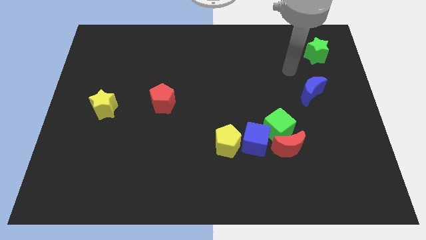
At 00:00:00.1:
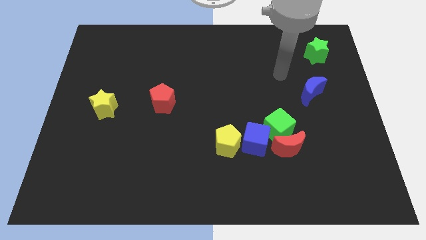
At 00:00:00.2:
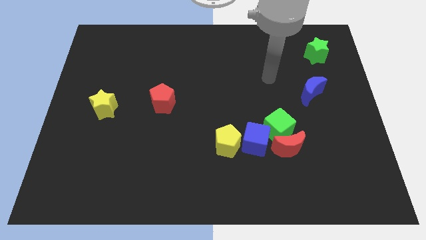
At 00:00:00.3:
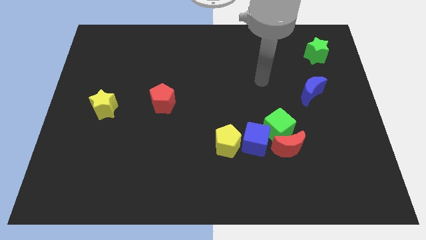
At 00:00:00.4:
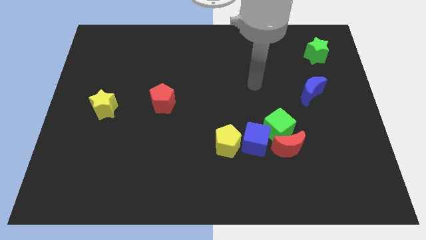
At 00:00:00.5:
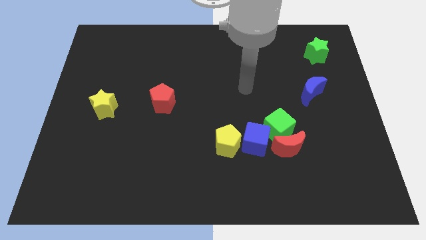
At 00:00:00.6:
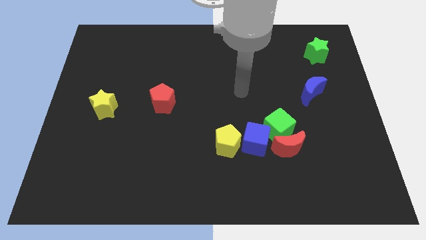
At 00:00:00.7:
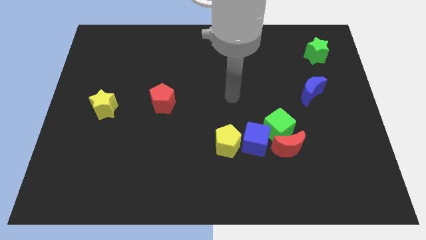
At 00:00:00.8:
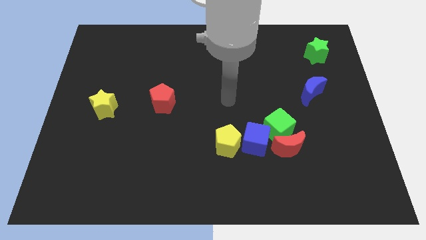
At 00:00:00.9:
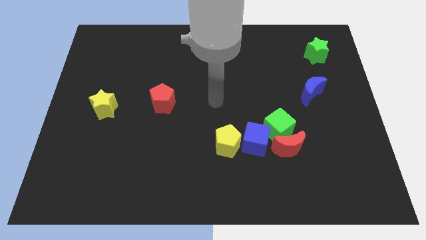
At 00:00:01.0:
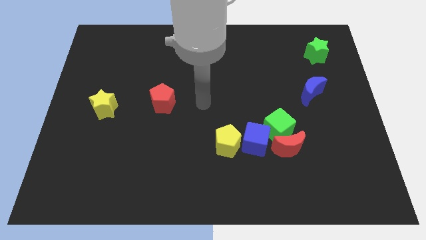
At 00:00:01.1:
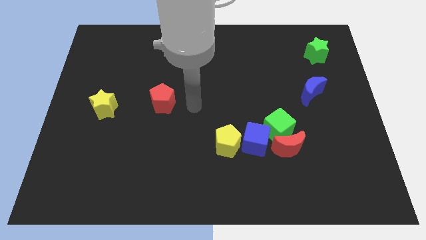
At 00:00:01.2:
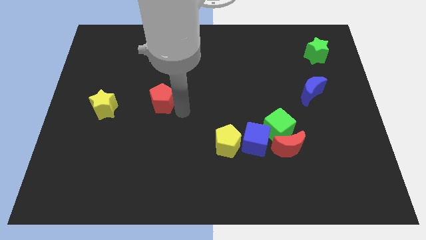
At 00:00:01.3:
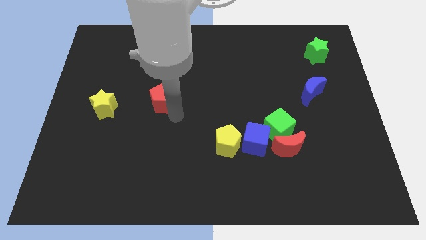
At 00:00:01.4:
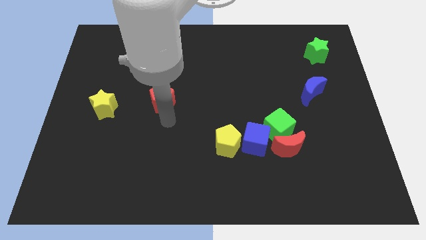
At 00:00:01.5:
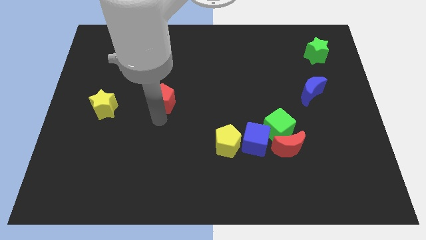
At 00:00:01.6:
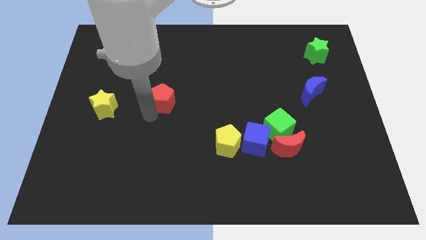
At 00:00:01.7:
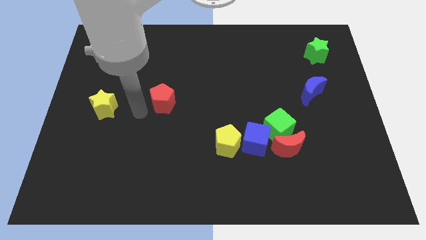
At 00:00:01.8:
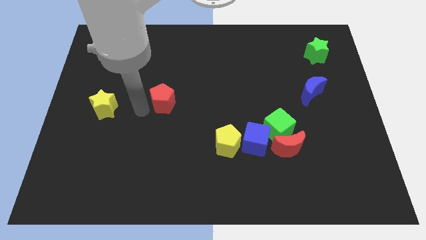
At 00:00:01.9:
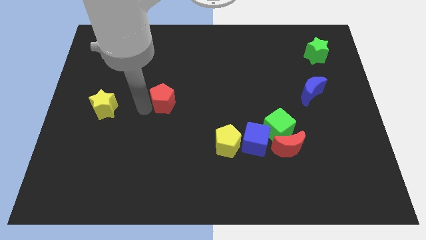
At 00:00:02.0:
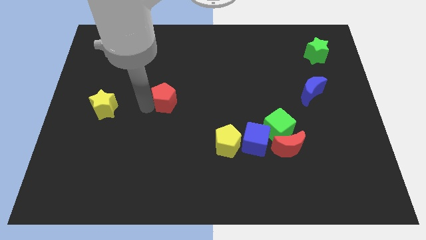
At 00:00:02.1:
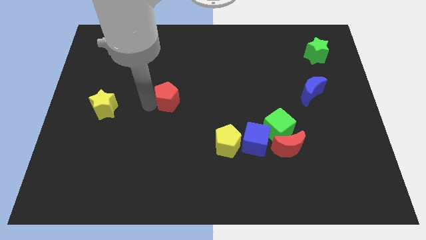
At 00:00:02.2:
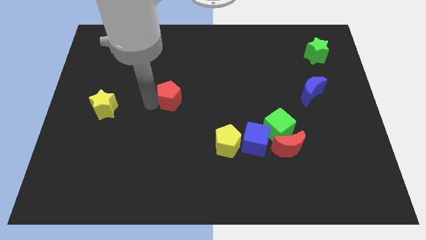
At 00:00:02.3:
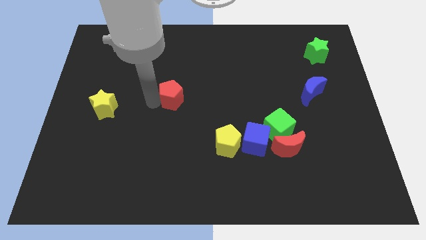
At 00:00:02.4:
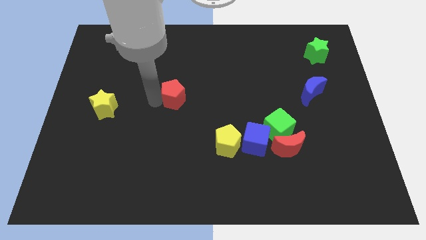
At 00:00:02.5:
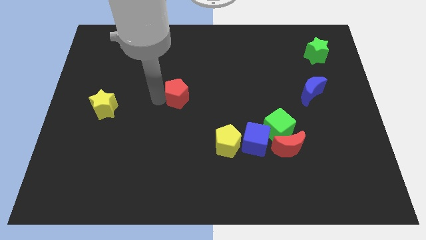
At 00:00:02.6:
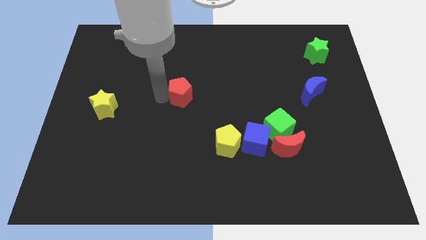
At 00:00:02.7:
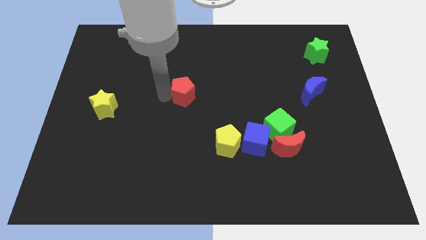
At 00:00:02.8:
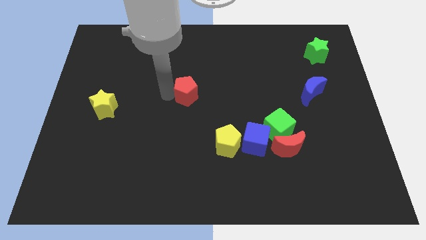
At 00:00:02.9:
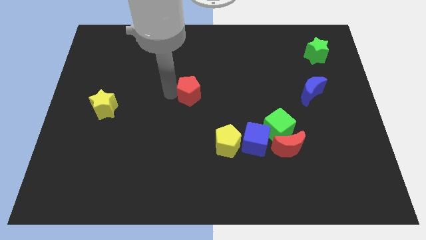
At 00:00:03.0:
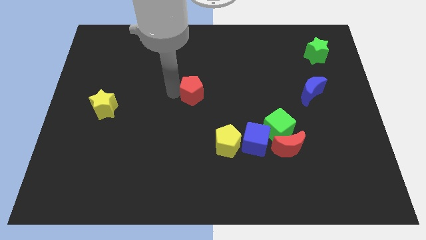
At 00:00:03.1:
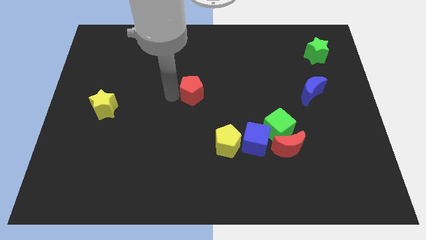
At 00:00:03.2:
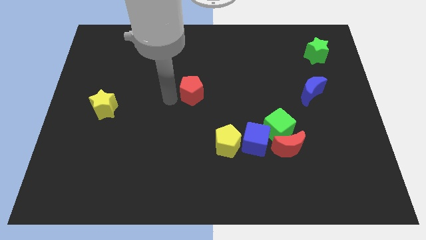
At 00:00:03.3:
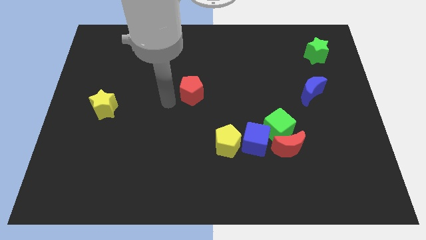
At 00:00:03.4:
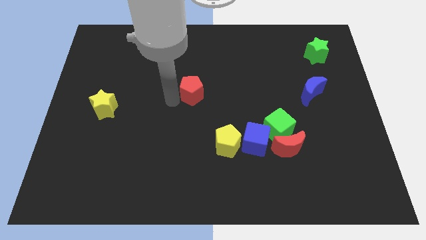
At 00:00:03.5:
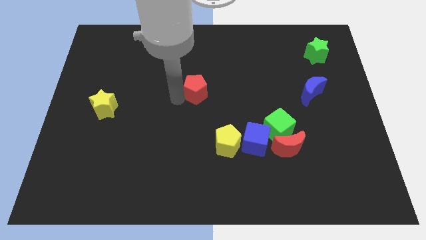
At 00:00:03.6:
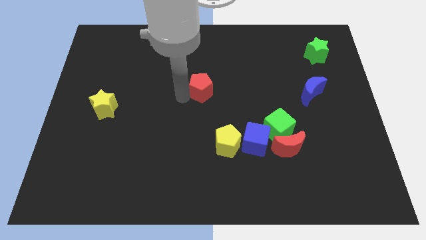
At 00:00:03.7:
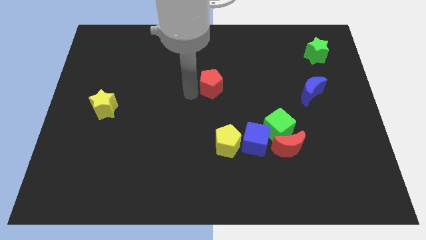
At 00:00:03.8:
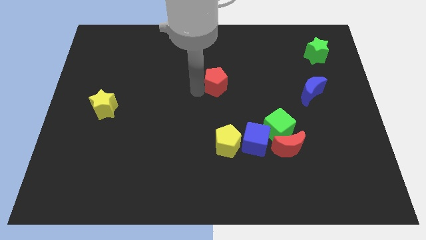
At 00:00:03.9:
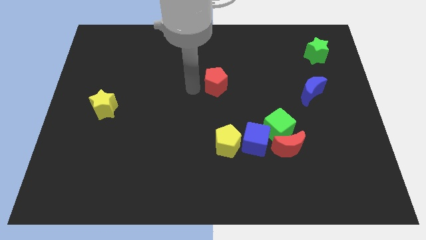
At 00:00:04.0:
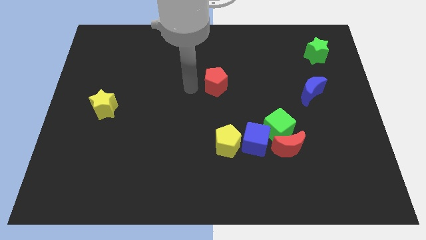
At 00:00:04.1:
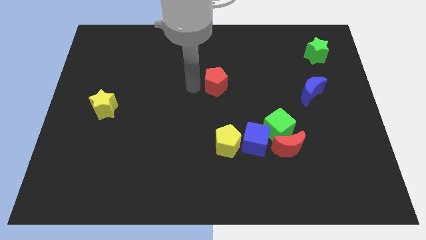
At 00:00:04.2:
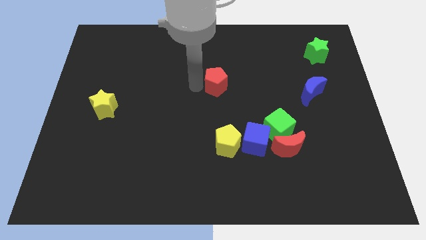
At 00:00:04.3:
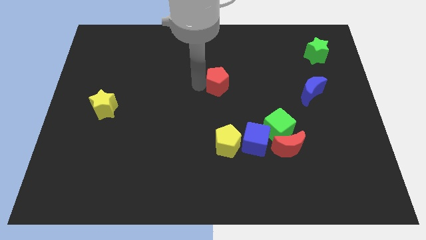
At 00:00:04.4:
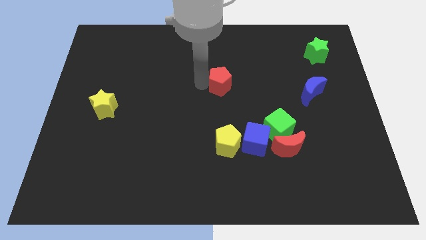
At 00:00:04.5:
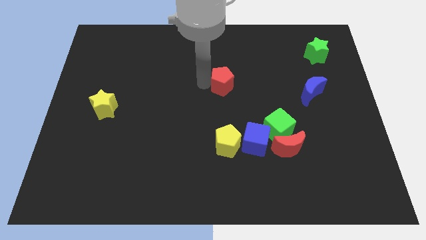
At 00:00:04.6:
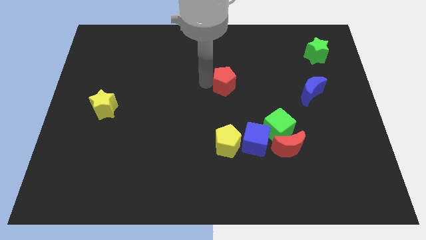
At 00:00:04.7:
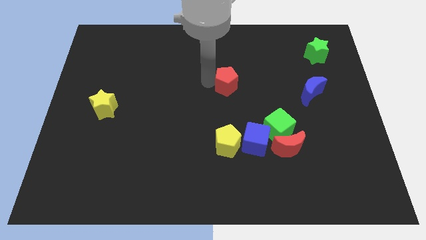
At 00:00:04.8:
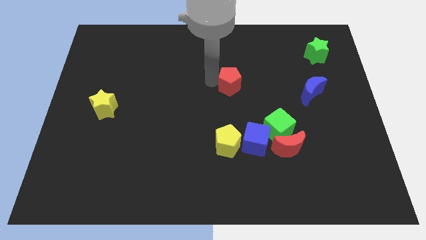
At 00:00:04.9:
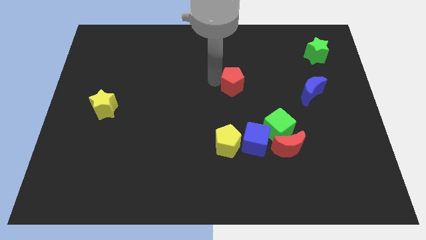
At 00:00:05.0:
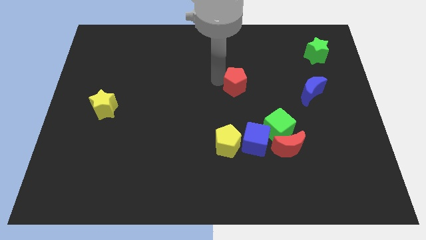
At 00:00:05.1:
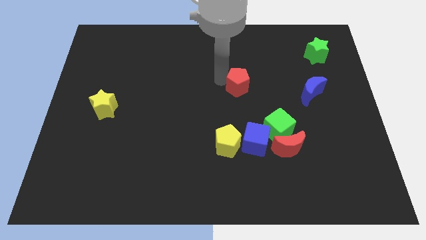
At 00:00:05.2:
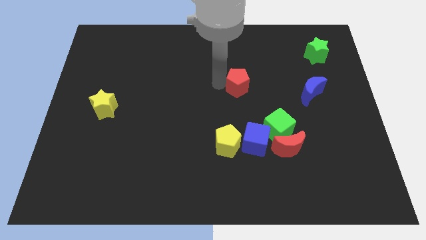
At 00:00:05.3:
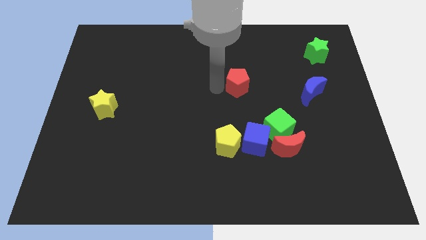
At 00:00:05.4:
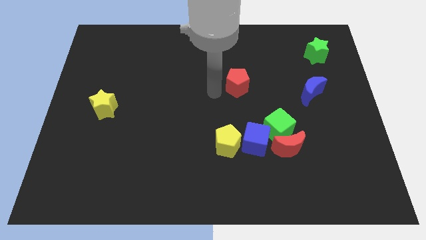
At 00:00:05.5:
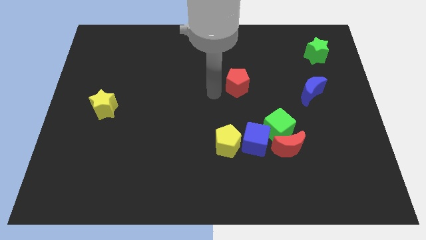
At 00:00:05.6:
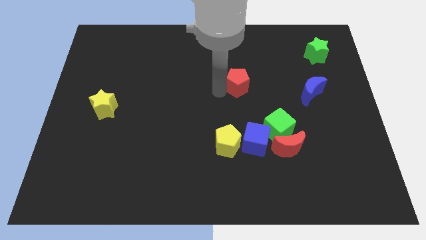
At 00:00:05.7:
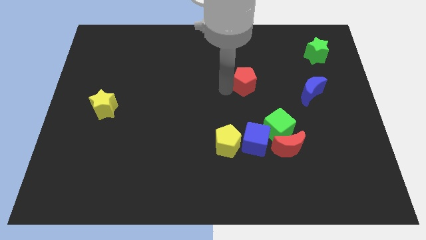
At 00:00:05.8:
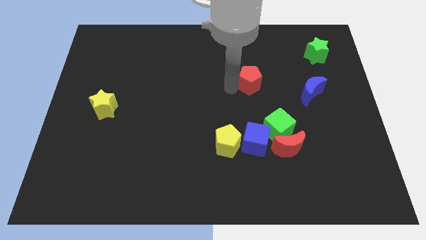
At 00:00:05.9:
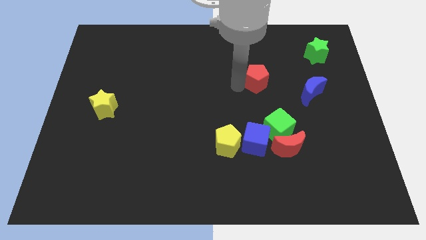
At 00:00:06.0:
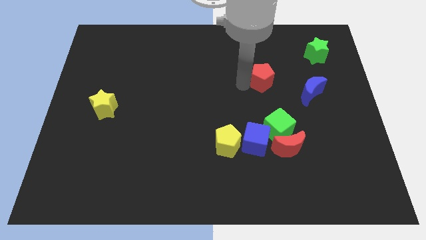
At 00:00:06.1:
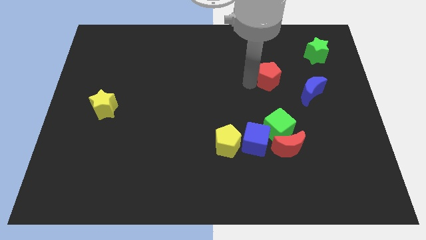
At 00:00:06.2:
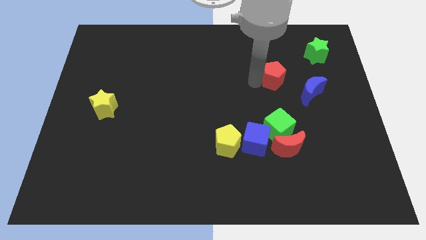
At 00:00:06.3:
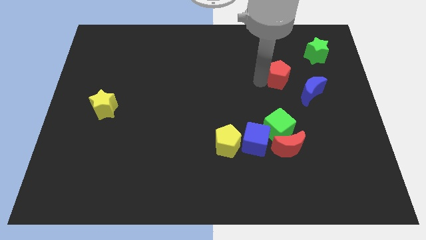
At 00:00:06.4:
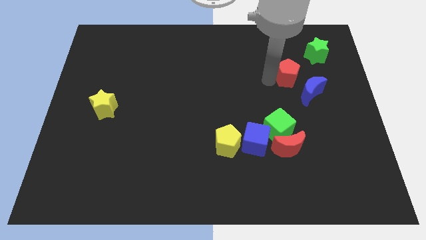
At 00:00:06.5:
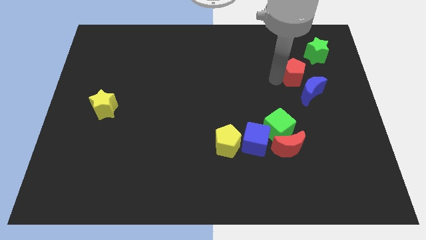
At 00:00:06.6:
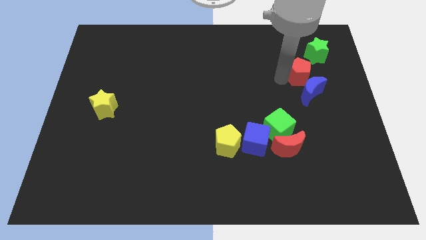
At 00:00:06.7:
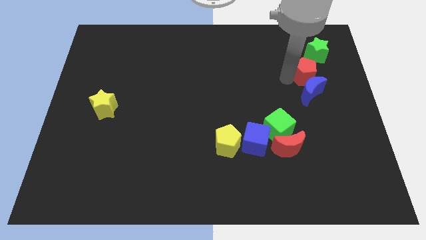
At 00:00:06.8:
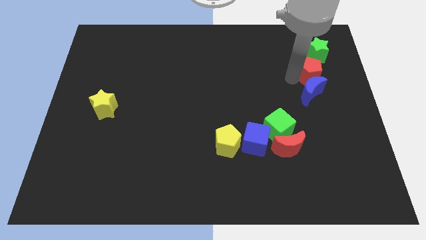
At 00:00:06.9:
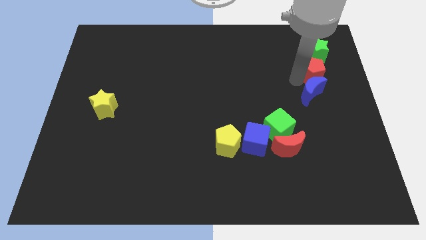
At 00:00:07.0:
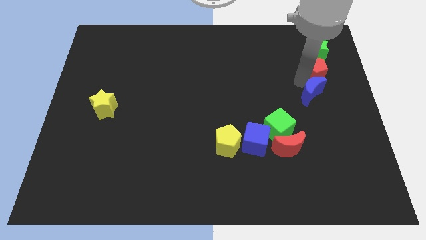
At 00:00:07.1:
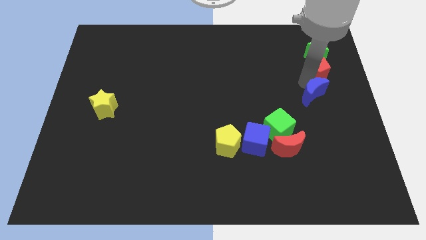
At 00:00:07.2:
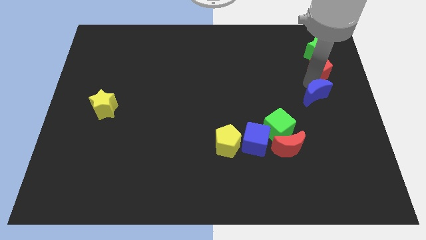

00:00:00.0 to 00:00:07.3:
move the red pentagon to the green star
